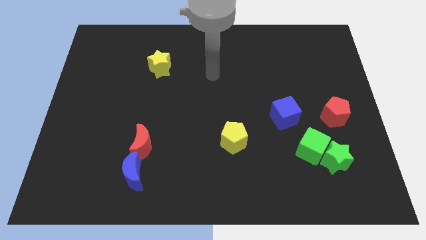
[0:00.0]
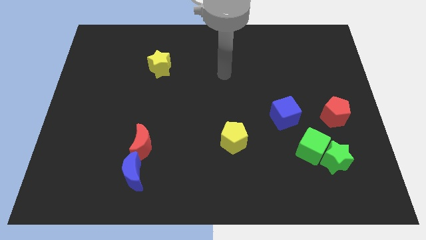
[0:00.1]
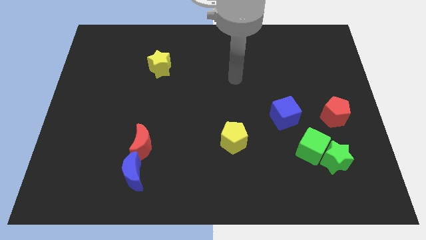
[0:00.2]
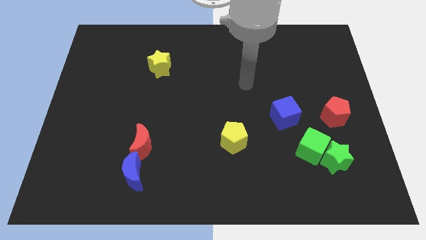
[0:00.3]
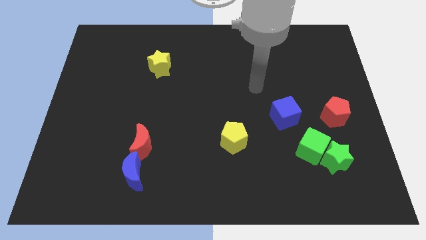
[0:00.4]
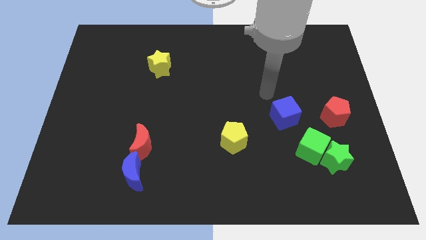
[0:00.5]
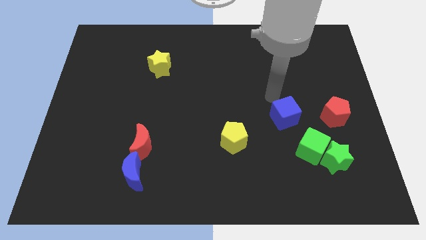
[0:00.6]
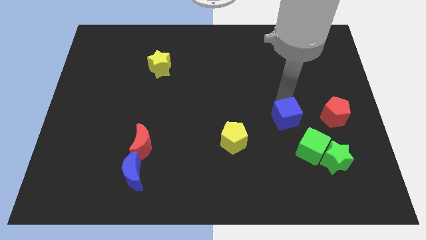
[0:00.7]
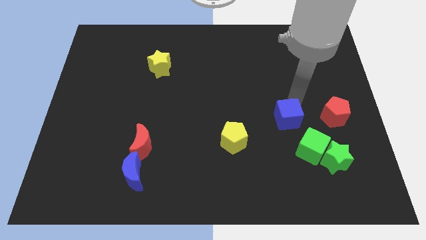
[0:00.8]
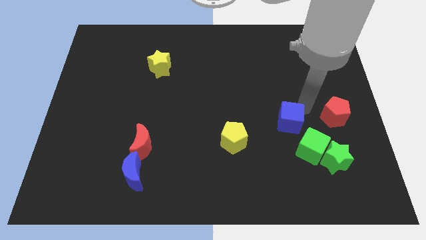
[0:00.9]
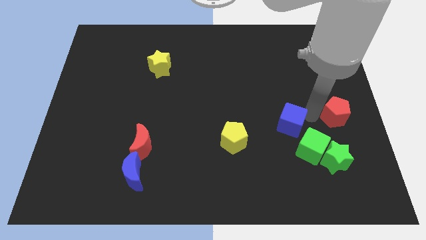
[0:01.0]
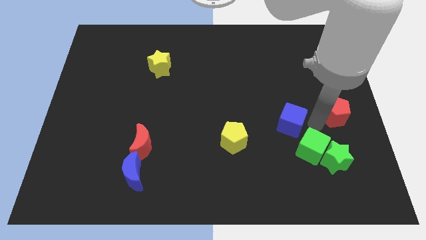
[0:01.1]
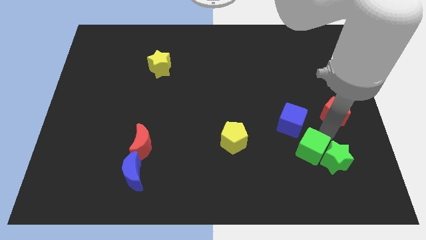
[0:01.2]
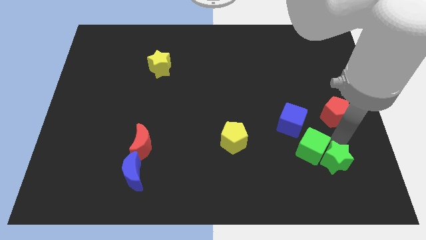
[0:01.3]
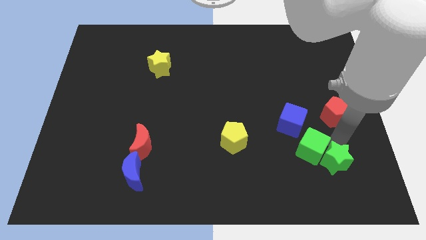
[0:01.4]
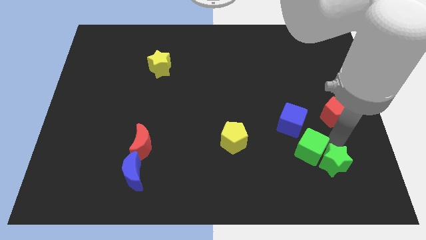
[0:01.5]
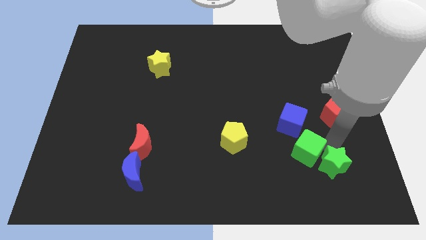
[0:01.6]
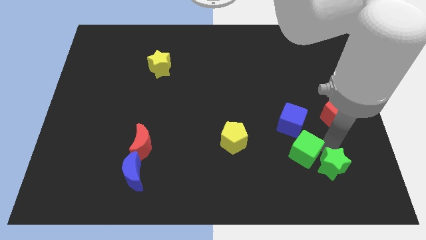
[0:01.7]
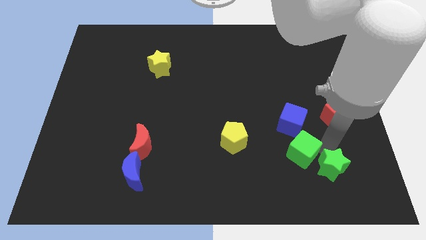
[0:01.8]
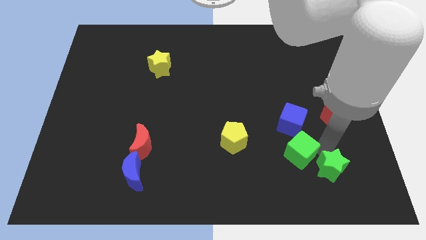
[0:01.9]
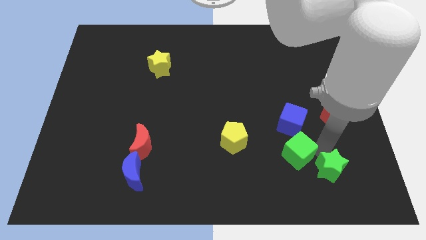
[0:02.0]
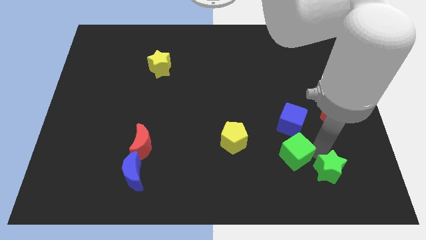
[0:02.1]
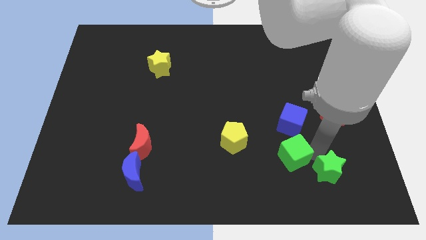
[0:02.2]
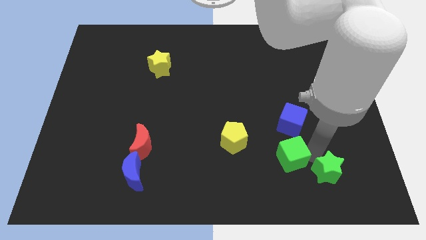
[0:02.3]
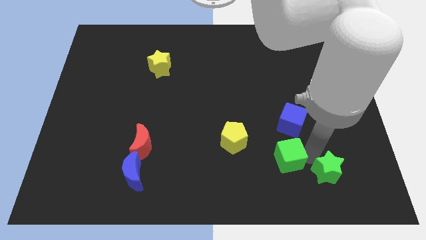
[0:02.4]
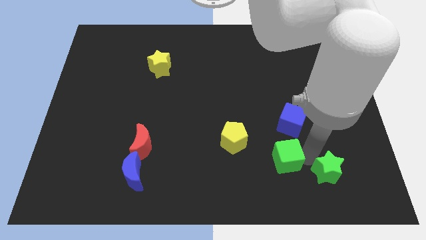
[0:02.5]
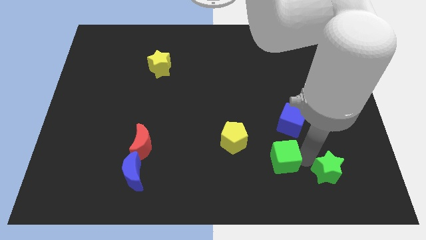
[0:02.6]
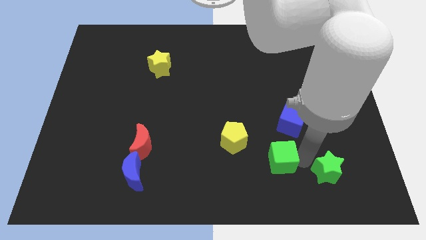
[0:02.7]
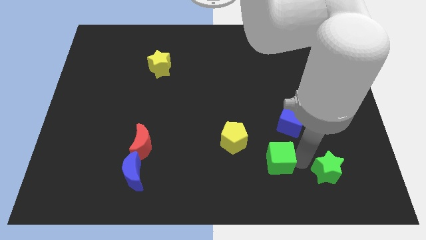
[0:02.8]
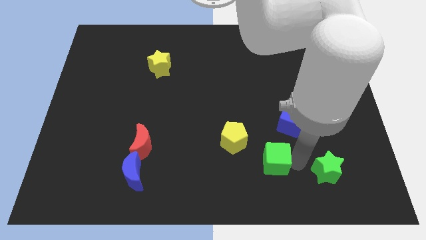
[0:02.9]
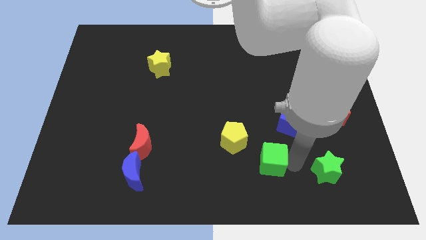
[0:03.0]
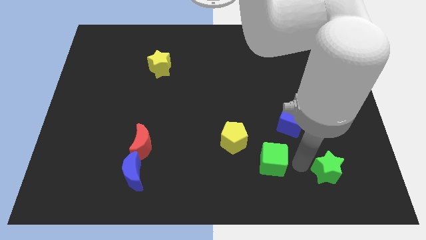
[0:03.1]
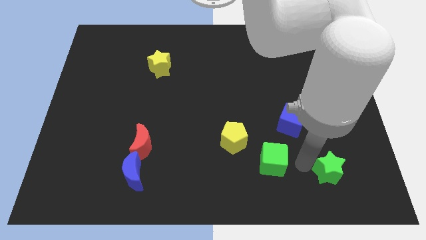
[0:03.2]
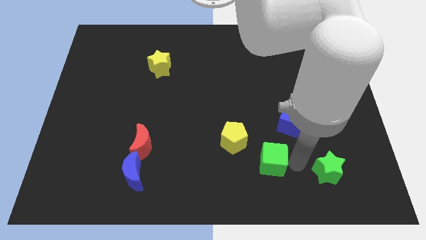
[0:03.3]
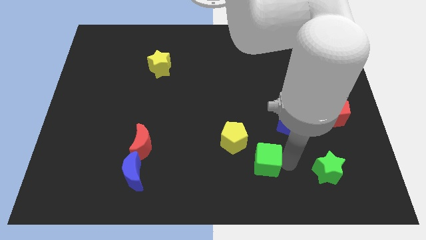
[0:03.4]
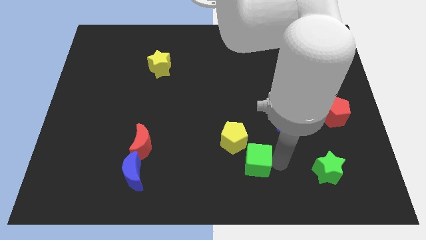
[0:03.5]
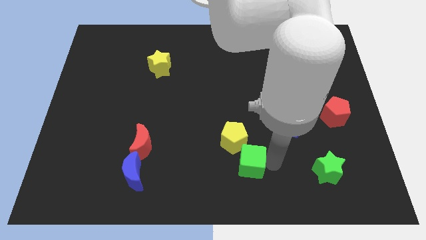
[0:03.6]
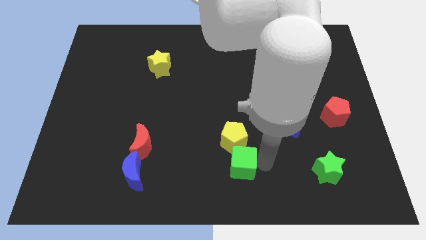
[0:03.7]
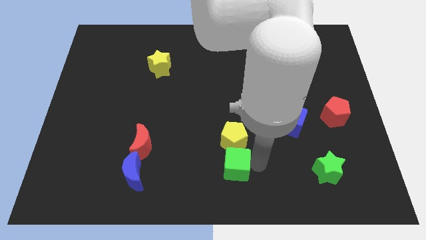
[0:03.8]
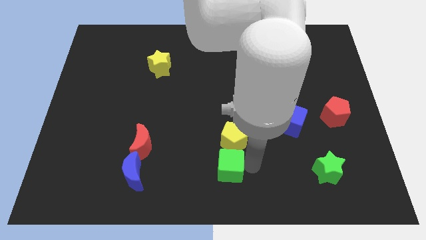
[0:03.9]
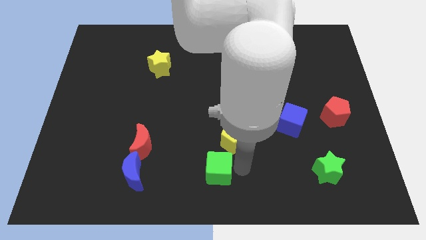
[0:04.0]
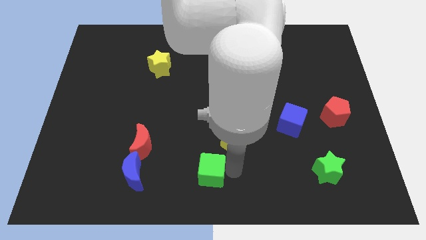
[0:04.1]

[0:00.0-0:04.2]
slide the green cube left

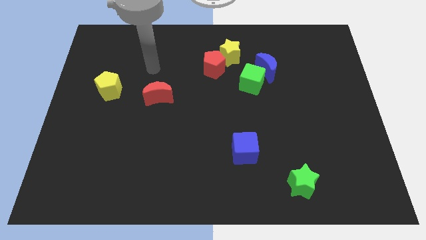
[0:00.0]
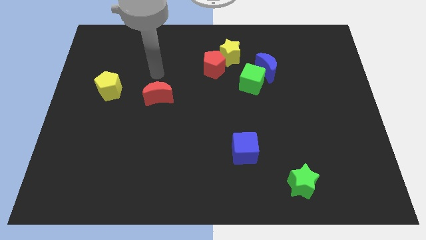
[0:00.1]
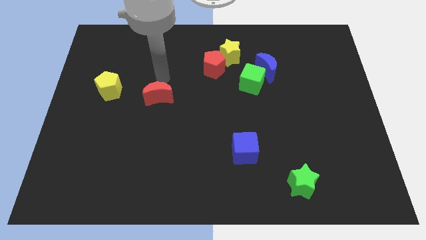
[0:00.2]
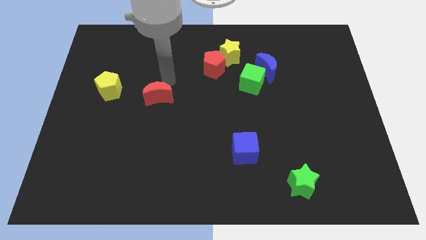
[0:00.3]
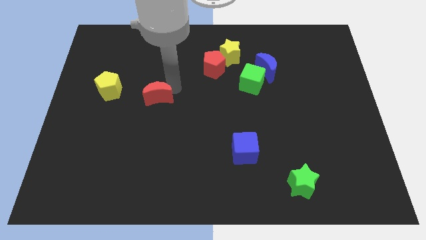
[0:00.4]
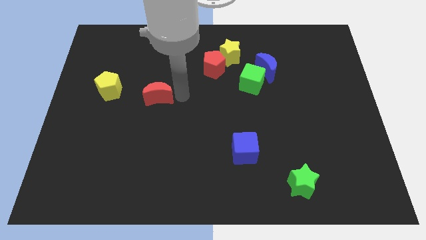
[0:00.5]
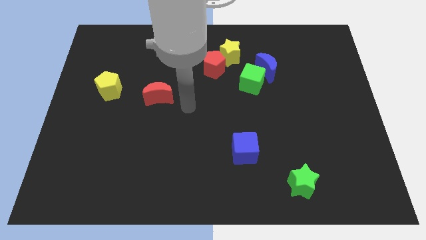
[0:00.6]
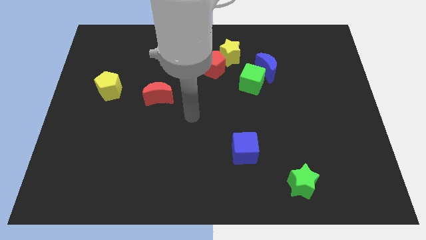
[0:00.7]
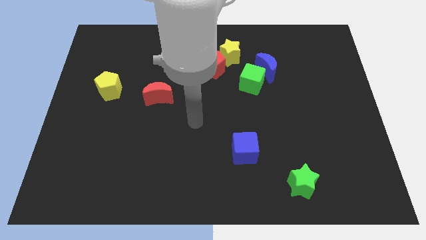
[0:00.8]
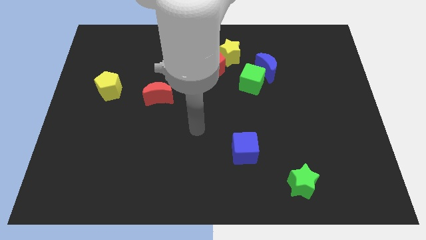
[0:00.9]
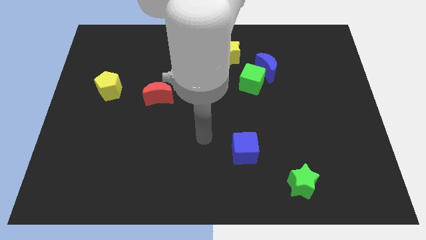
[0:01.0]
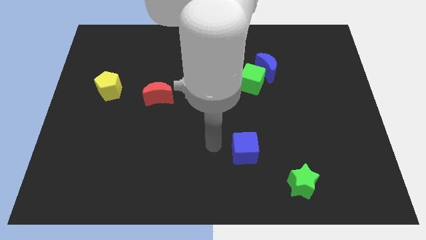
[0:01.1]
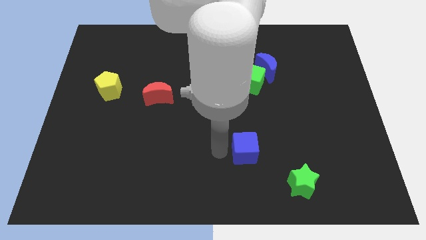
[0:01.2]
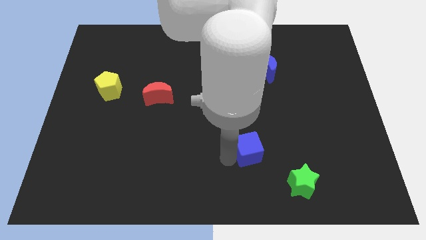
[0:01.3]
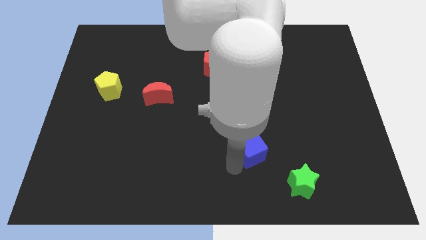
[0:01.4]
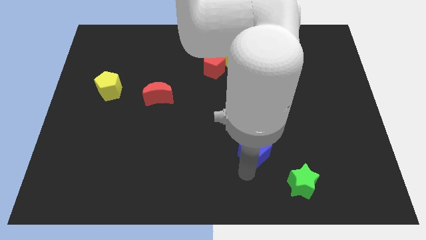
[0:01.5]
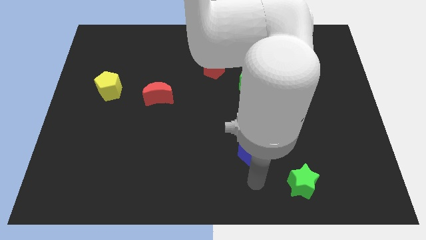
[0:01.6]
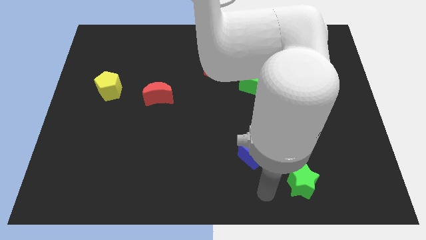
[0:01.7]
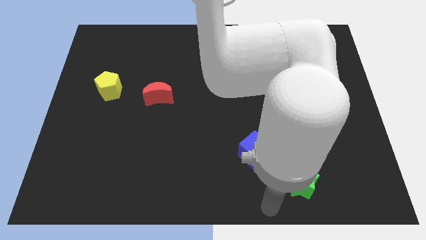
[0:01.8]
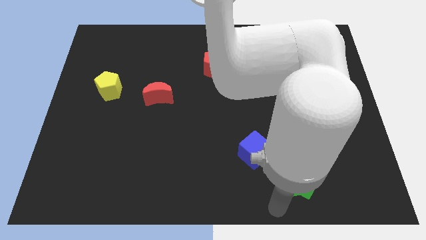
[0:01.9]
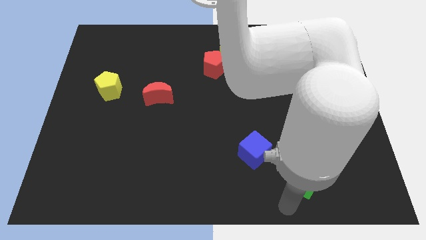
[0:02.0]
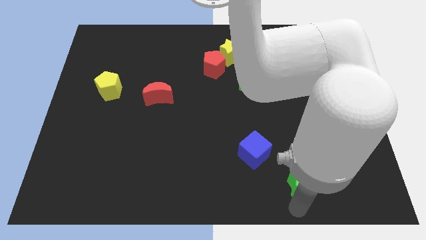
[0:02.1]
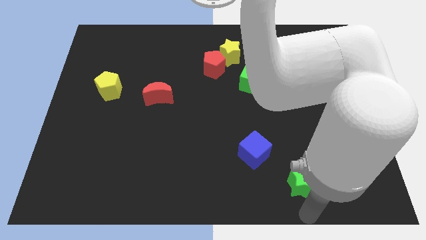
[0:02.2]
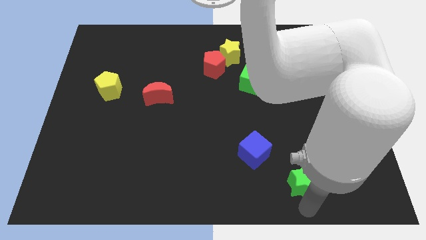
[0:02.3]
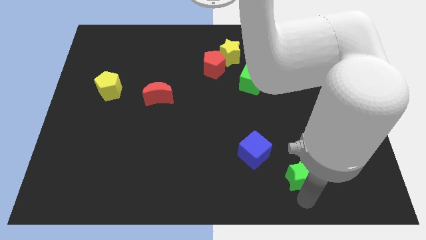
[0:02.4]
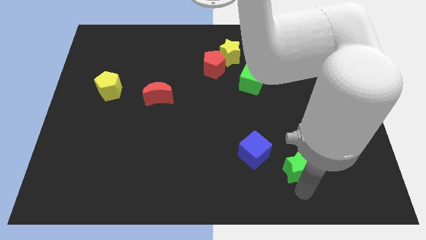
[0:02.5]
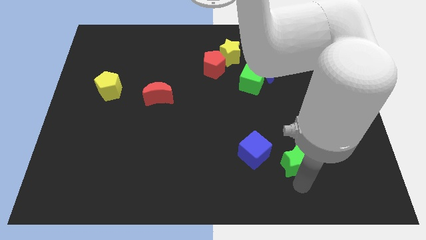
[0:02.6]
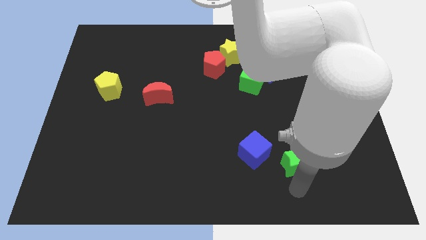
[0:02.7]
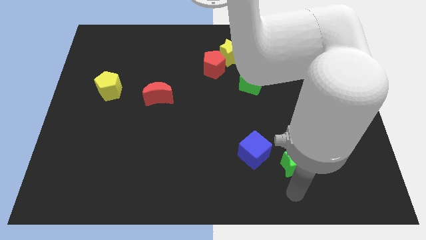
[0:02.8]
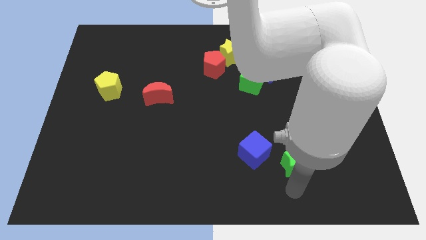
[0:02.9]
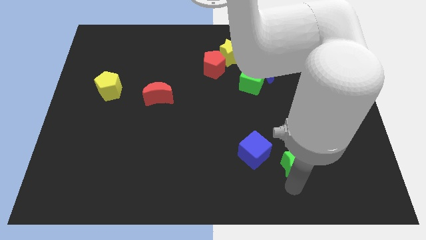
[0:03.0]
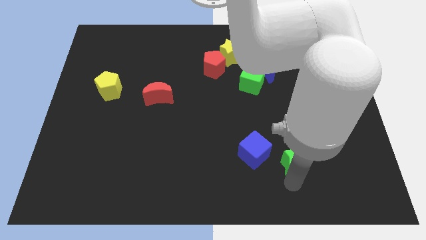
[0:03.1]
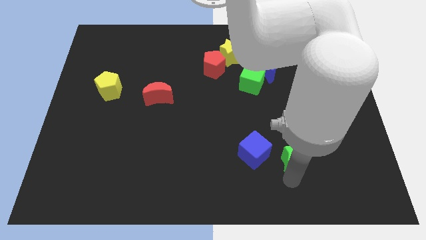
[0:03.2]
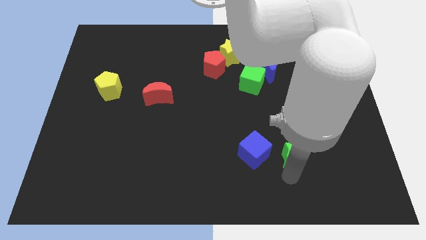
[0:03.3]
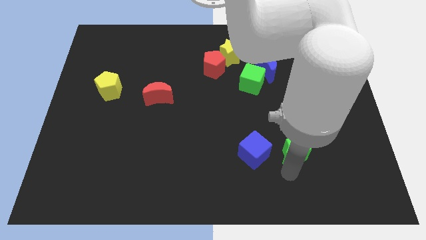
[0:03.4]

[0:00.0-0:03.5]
push the green star slightly upwards
